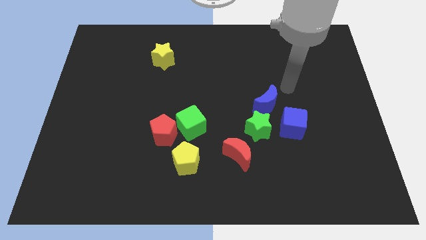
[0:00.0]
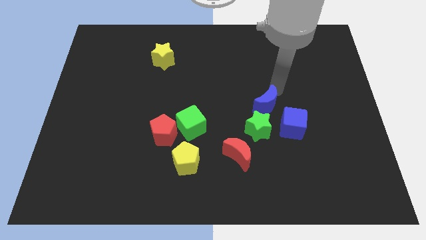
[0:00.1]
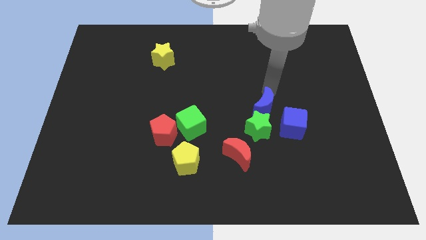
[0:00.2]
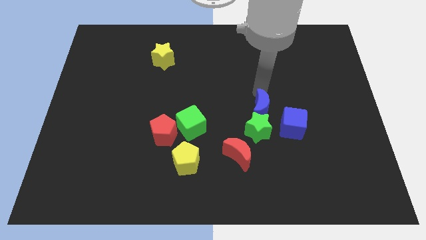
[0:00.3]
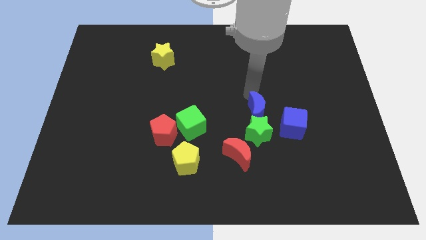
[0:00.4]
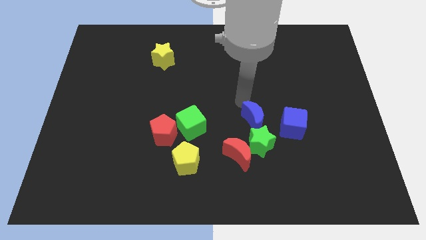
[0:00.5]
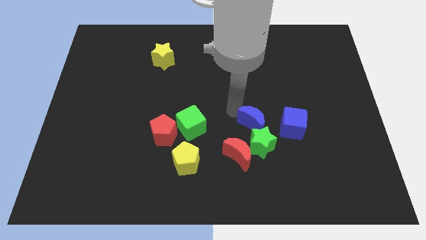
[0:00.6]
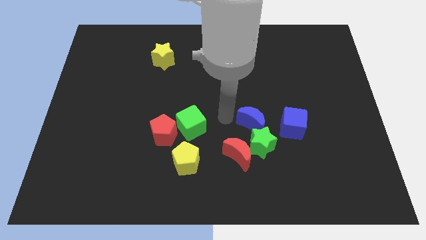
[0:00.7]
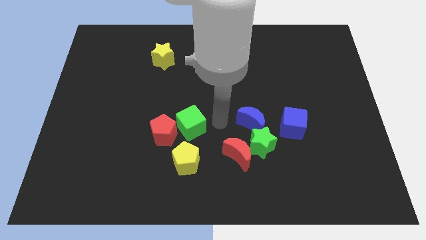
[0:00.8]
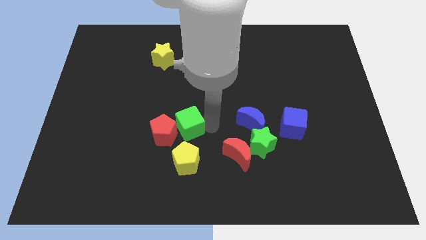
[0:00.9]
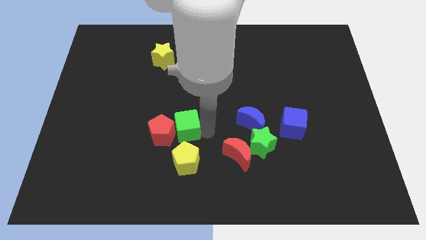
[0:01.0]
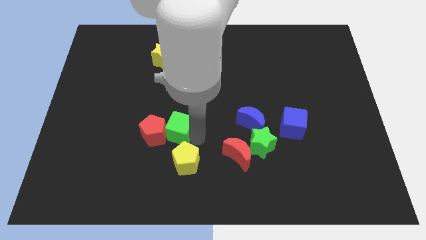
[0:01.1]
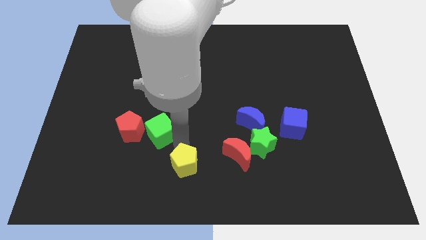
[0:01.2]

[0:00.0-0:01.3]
move the red pentagon away from the green cube and yellow pentagon

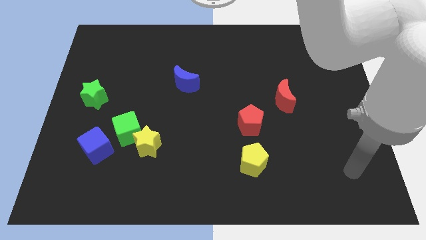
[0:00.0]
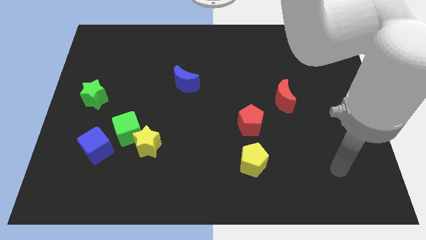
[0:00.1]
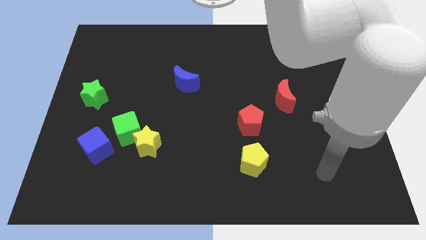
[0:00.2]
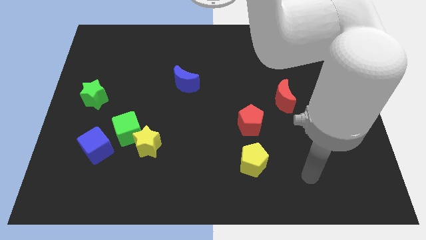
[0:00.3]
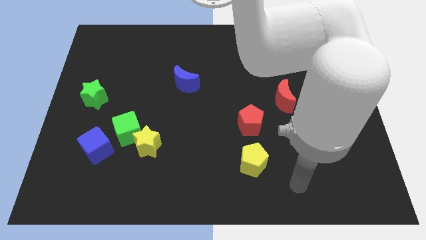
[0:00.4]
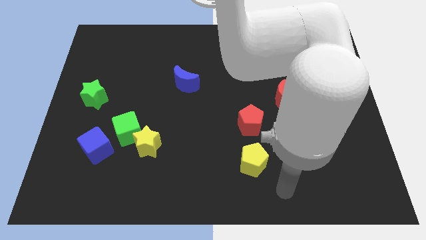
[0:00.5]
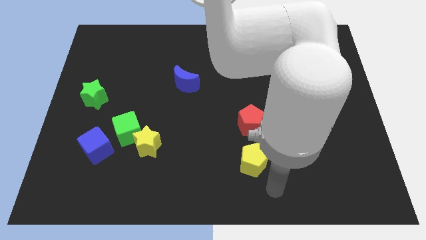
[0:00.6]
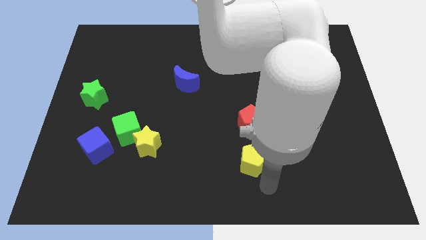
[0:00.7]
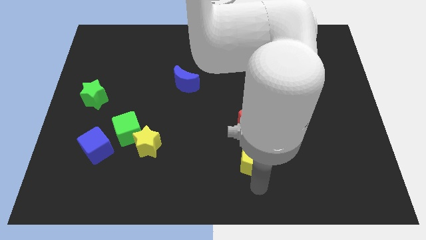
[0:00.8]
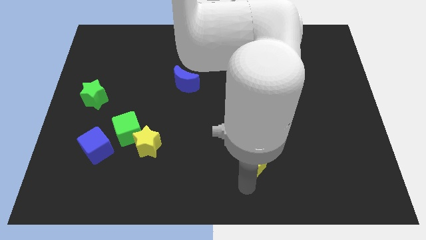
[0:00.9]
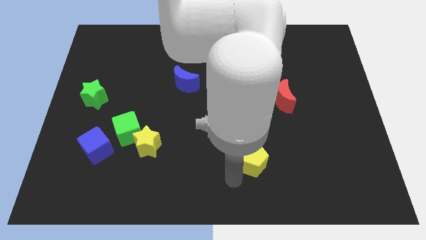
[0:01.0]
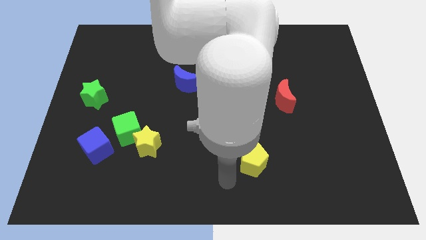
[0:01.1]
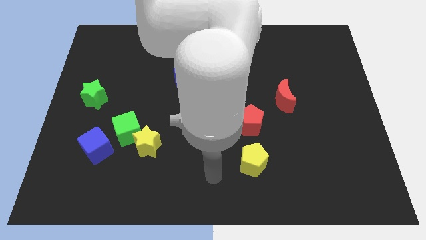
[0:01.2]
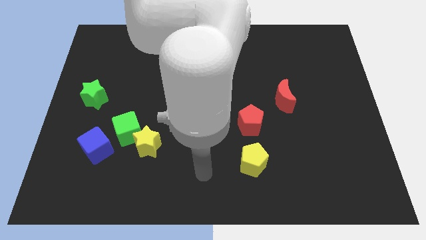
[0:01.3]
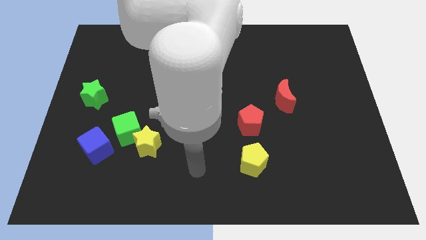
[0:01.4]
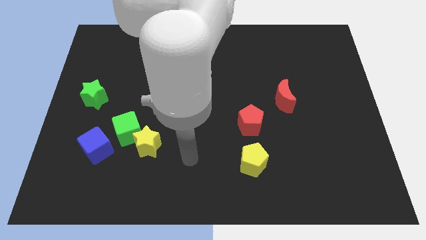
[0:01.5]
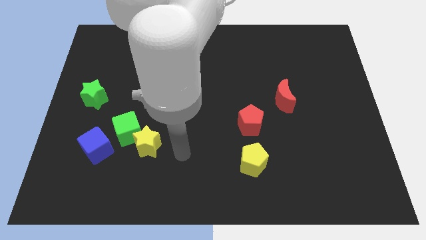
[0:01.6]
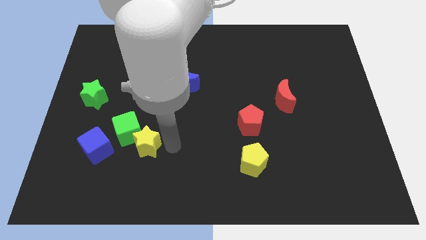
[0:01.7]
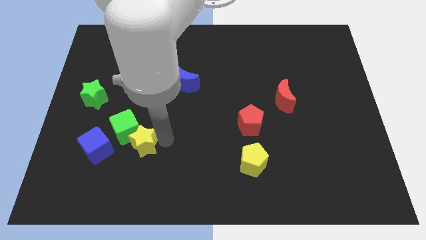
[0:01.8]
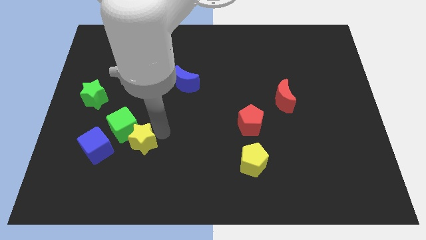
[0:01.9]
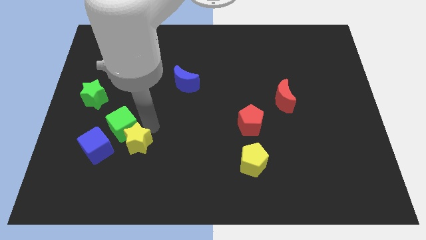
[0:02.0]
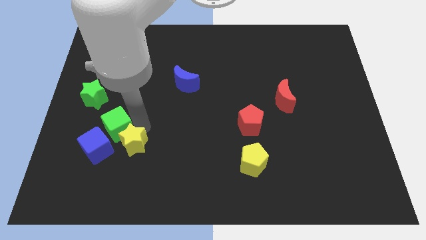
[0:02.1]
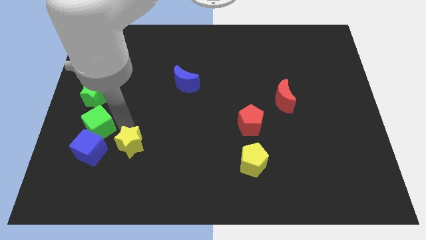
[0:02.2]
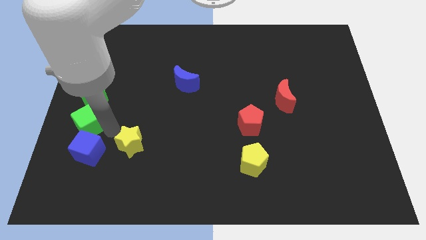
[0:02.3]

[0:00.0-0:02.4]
pull the yellow star apart from the green cube

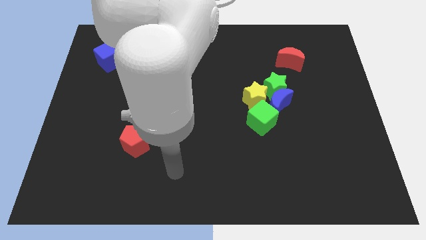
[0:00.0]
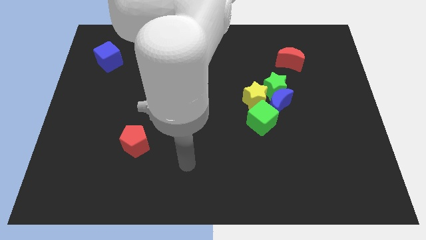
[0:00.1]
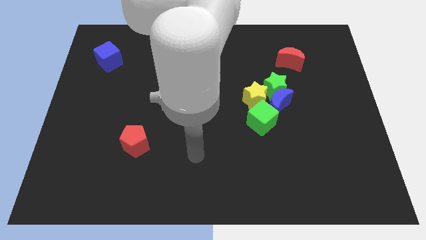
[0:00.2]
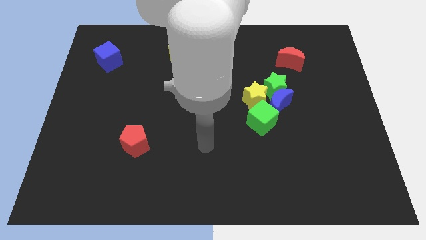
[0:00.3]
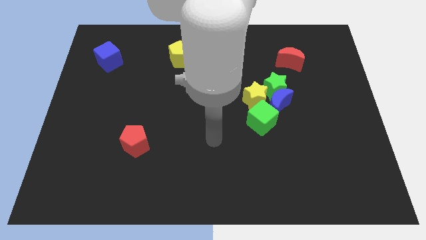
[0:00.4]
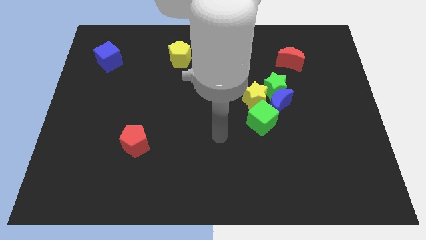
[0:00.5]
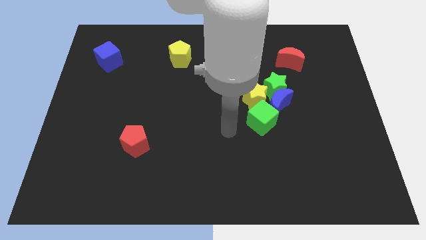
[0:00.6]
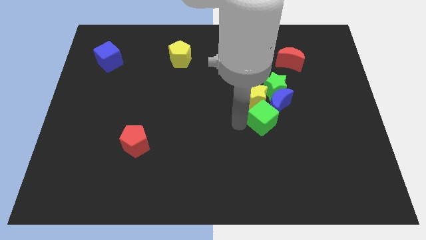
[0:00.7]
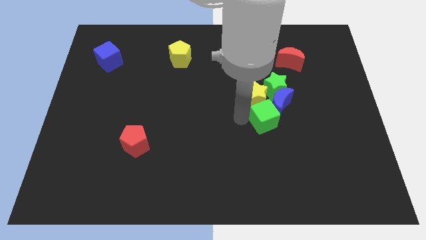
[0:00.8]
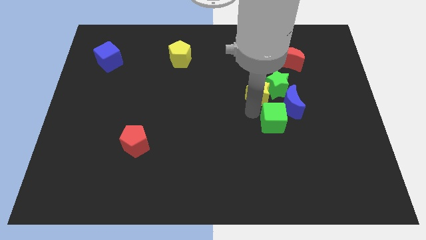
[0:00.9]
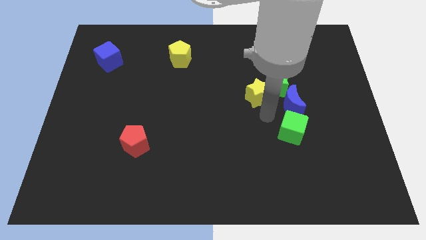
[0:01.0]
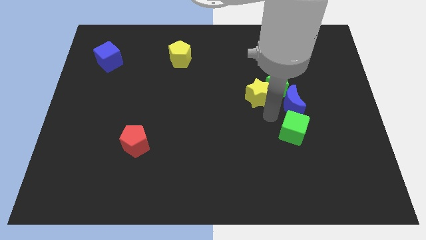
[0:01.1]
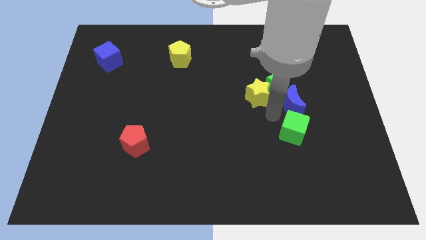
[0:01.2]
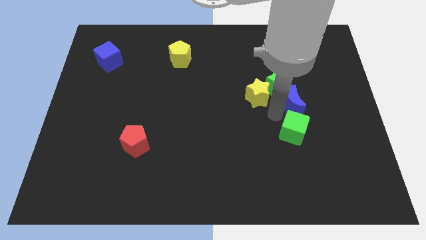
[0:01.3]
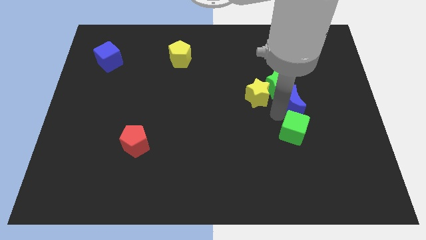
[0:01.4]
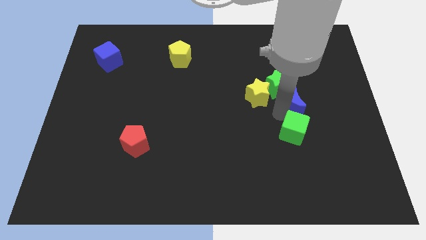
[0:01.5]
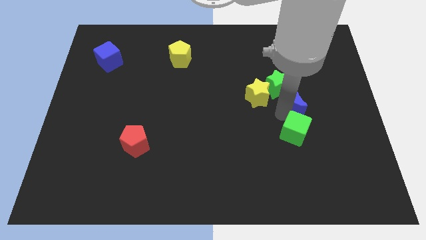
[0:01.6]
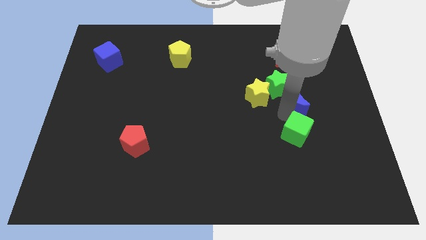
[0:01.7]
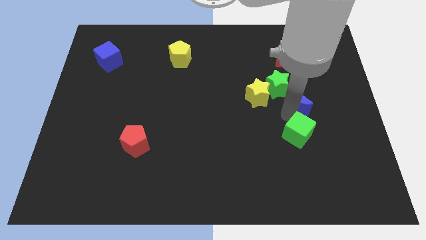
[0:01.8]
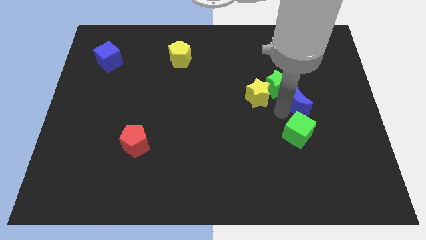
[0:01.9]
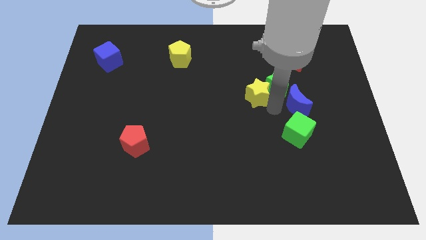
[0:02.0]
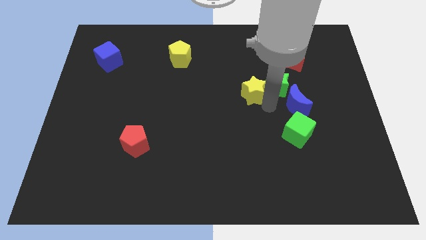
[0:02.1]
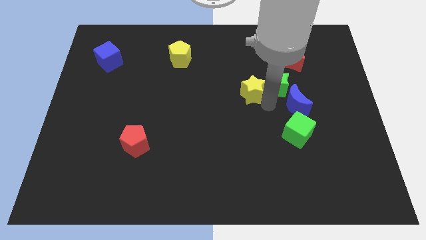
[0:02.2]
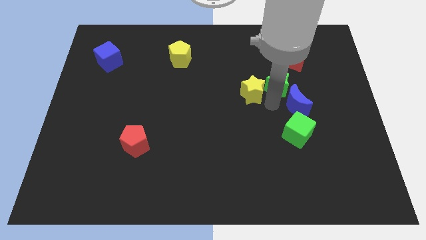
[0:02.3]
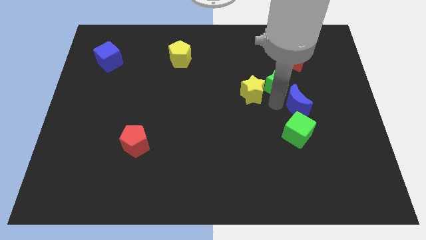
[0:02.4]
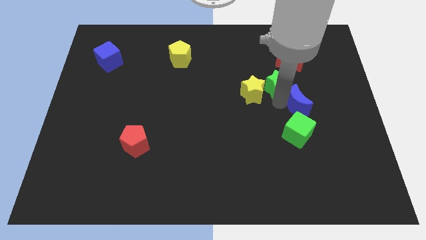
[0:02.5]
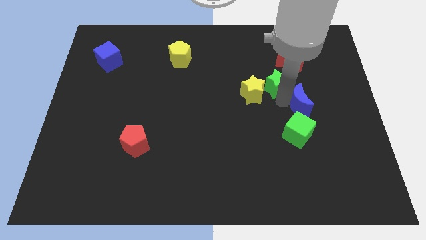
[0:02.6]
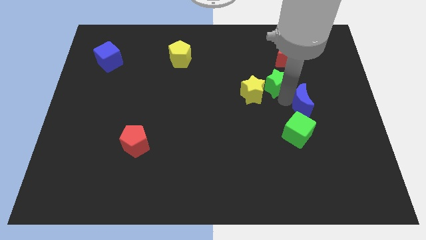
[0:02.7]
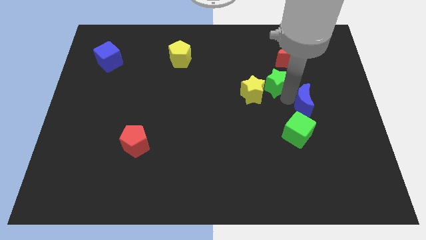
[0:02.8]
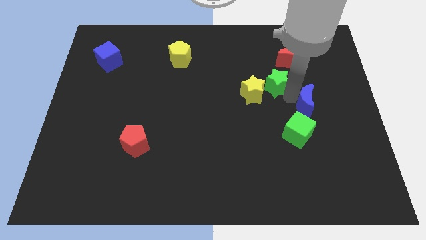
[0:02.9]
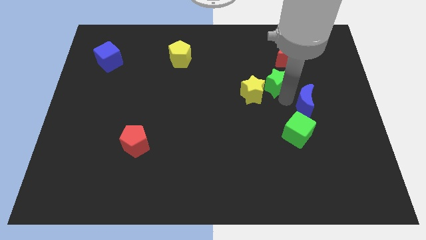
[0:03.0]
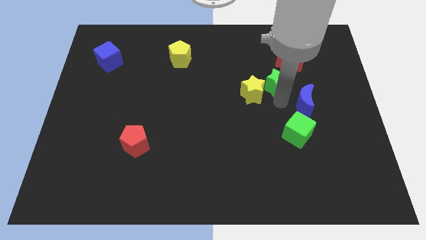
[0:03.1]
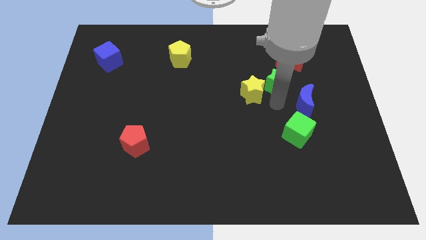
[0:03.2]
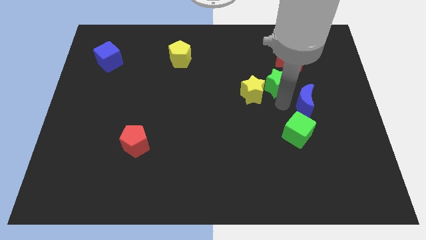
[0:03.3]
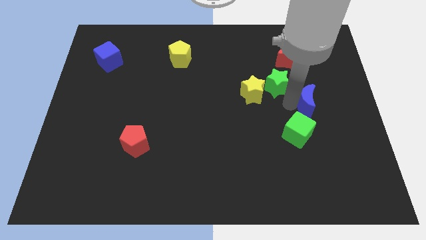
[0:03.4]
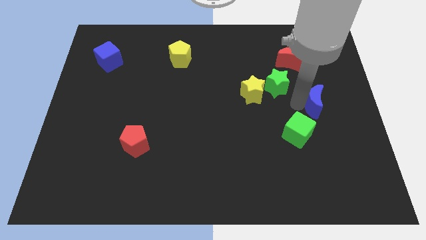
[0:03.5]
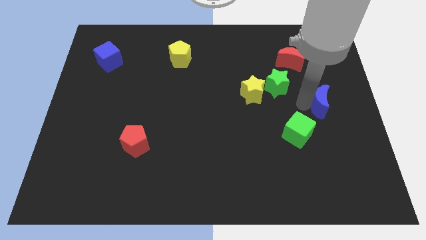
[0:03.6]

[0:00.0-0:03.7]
pull the blue moon apart from the green star, yellow star, and green cube

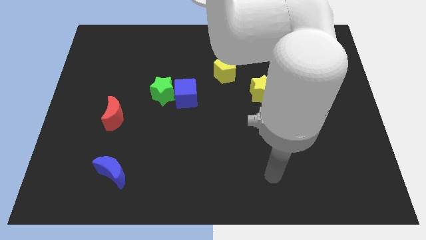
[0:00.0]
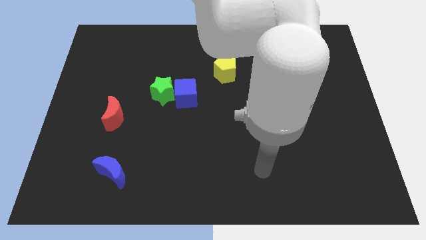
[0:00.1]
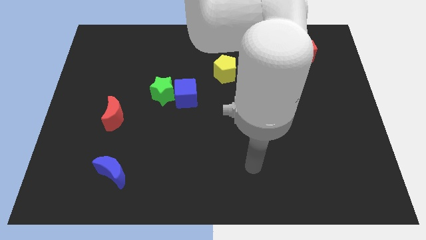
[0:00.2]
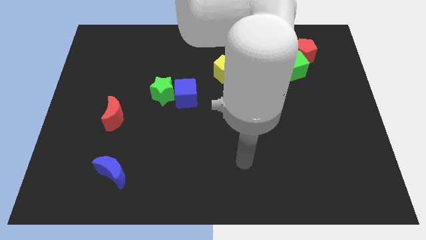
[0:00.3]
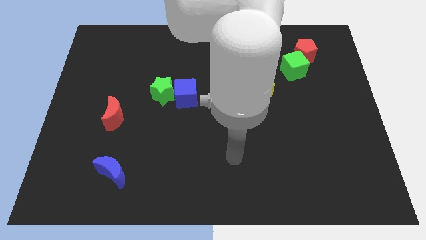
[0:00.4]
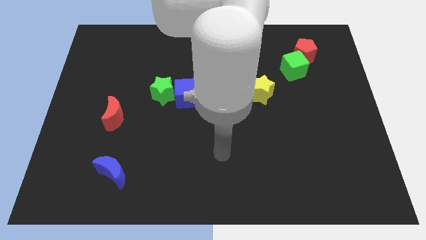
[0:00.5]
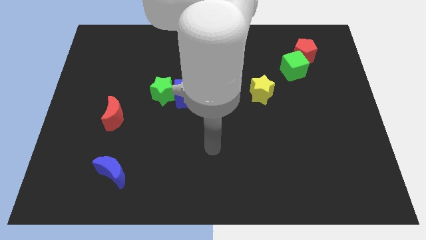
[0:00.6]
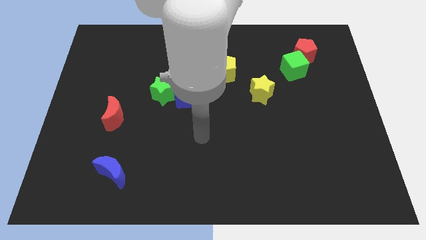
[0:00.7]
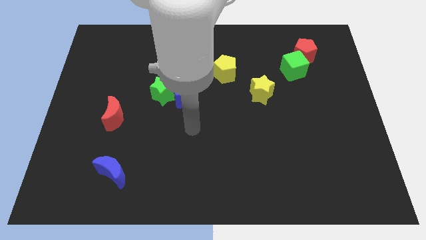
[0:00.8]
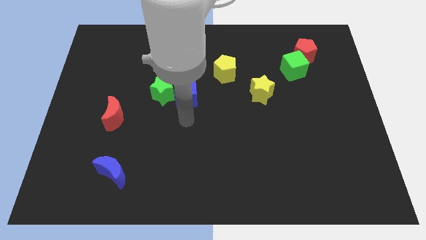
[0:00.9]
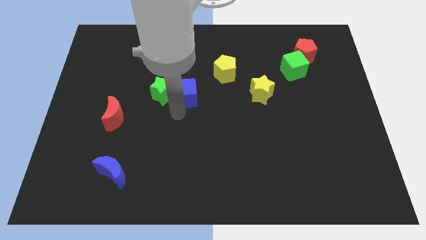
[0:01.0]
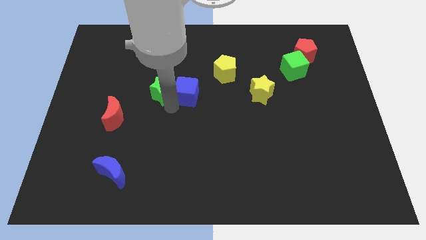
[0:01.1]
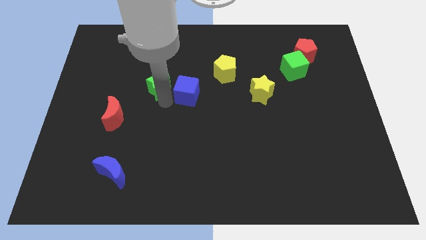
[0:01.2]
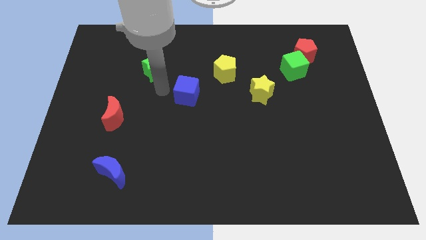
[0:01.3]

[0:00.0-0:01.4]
move the blue cube away from the green star

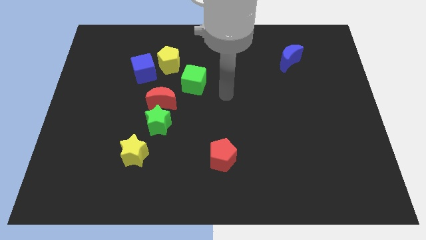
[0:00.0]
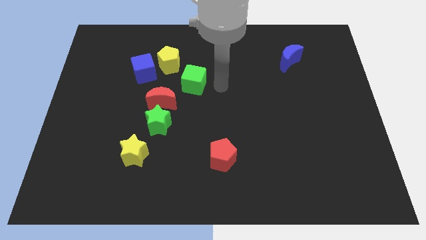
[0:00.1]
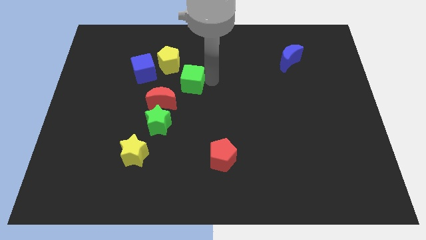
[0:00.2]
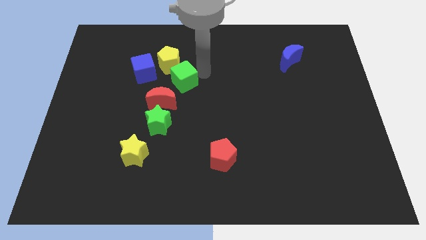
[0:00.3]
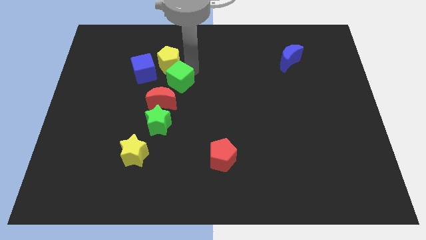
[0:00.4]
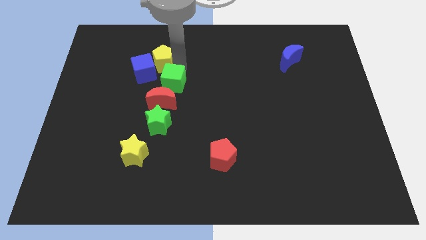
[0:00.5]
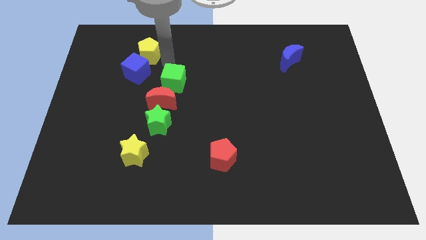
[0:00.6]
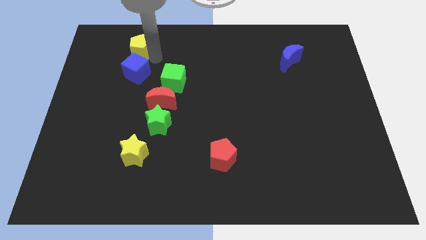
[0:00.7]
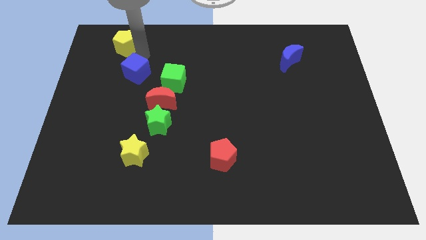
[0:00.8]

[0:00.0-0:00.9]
move the blue cube away from the yellow pentagon
